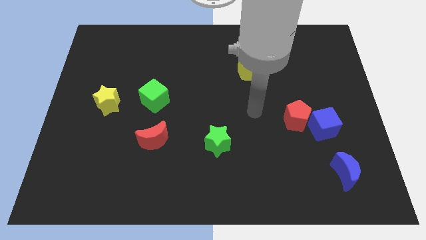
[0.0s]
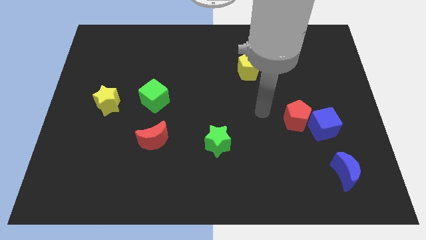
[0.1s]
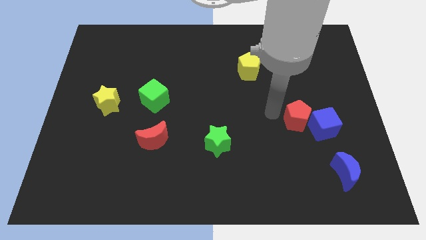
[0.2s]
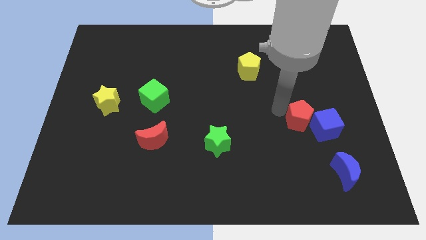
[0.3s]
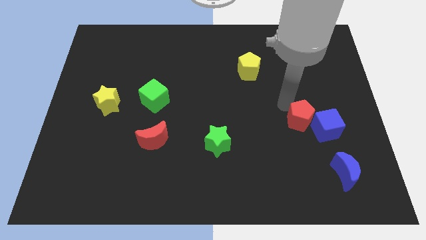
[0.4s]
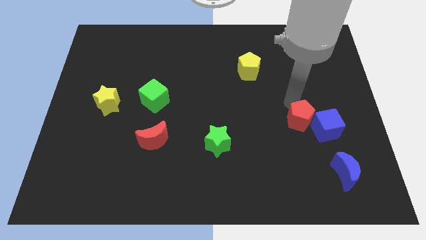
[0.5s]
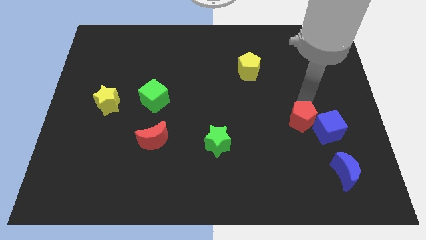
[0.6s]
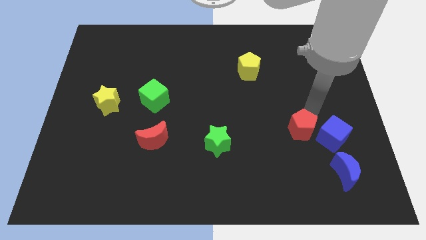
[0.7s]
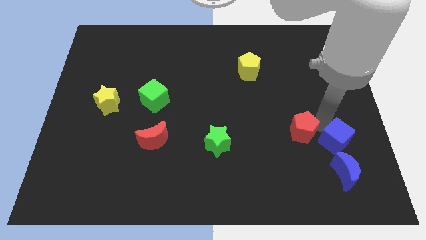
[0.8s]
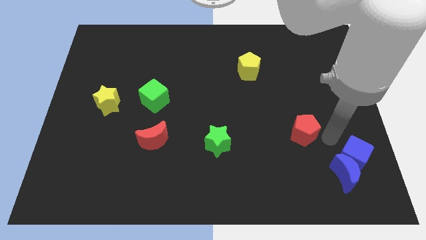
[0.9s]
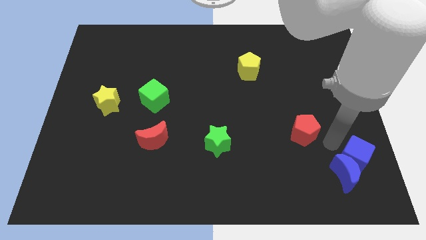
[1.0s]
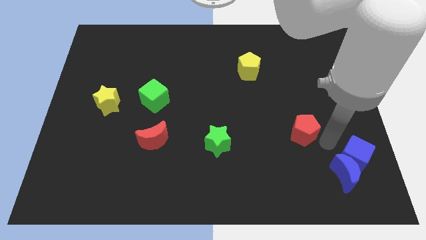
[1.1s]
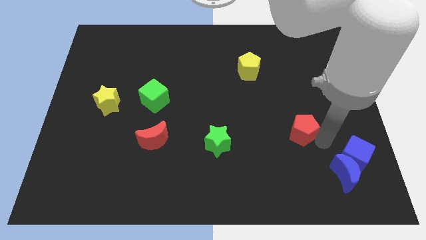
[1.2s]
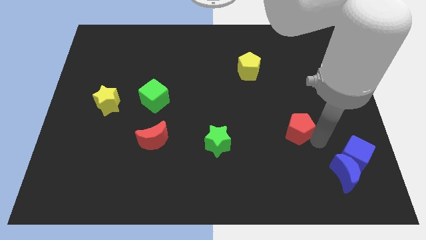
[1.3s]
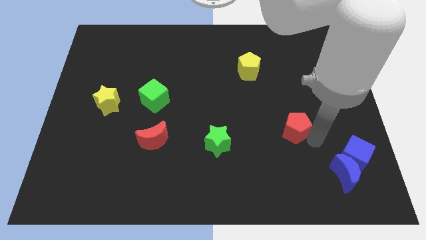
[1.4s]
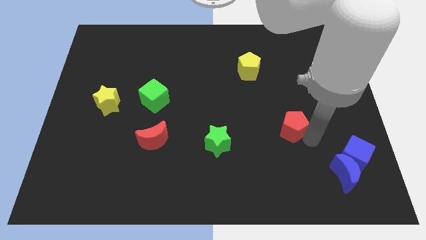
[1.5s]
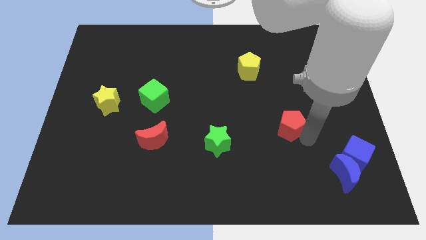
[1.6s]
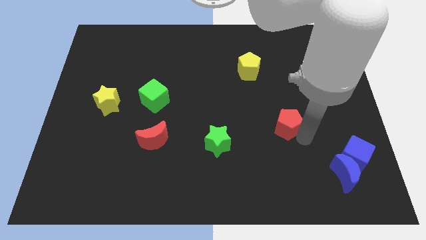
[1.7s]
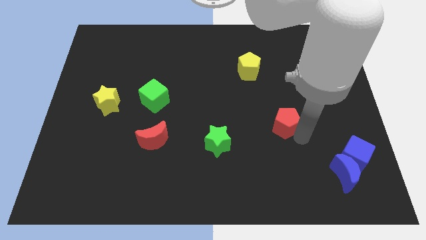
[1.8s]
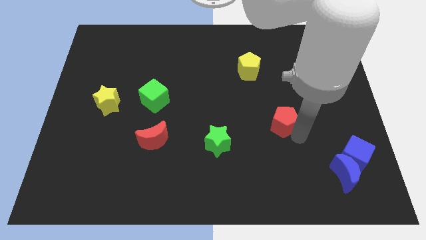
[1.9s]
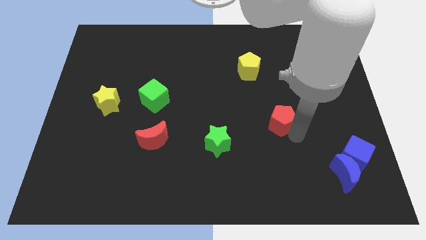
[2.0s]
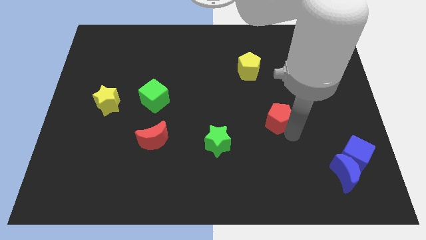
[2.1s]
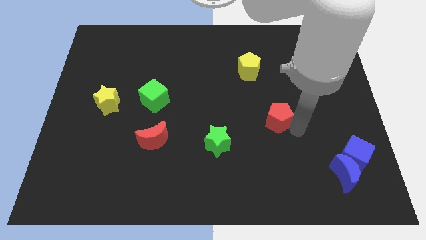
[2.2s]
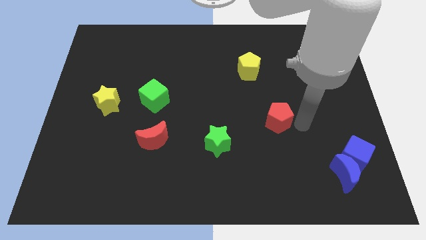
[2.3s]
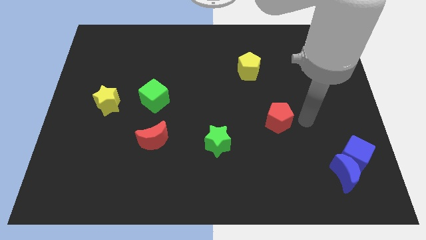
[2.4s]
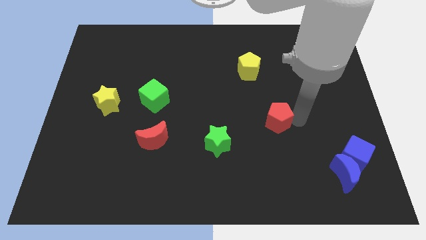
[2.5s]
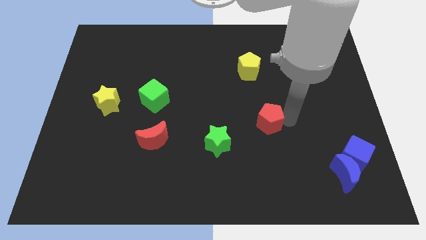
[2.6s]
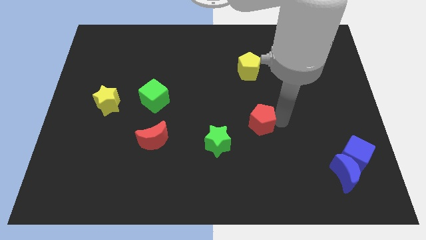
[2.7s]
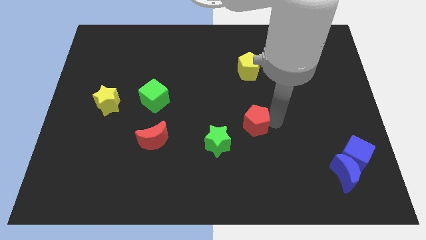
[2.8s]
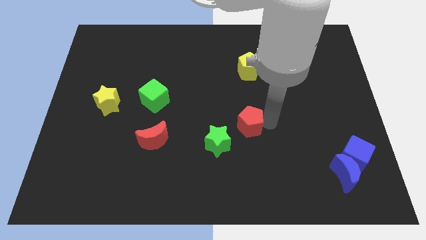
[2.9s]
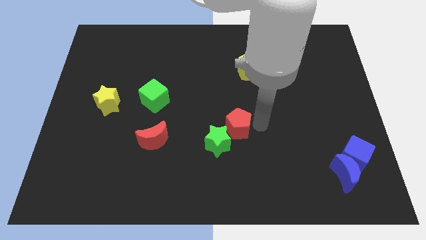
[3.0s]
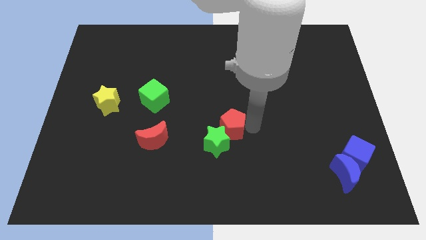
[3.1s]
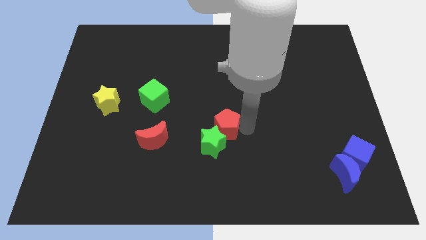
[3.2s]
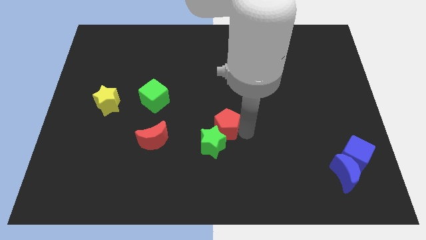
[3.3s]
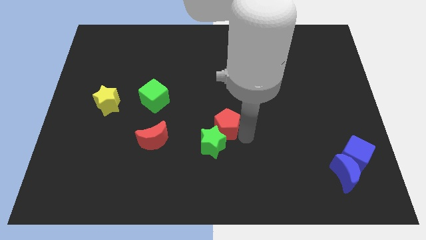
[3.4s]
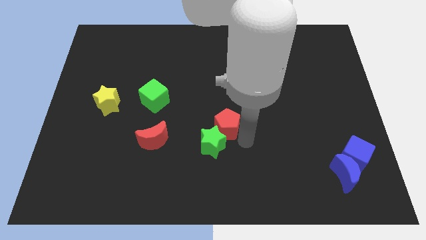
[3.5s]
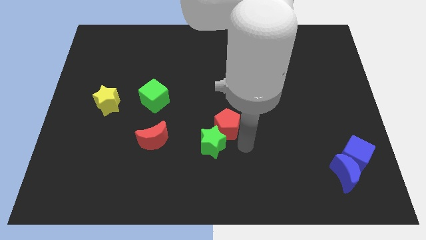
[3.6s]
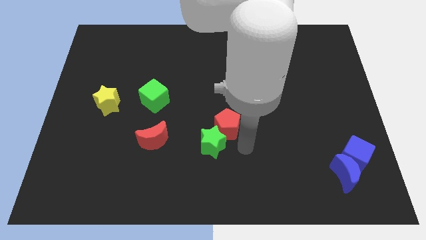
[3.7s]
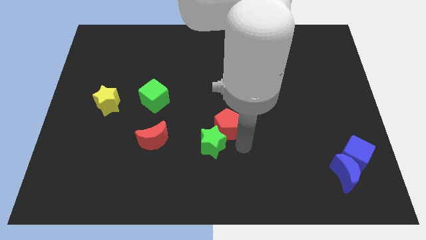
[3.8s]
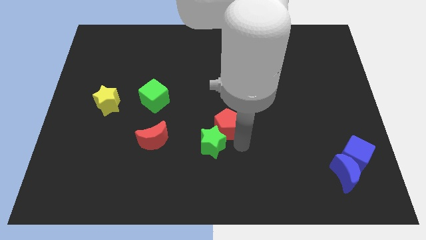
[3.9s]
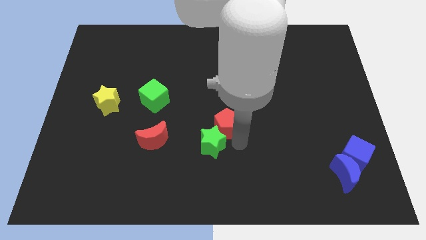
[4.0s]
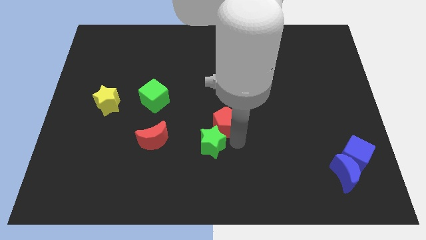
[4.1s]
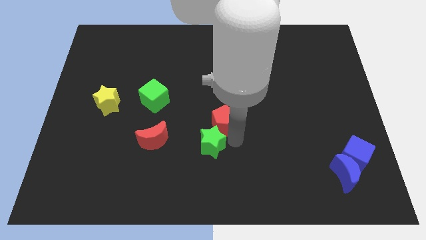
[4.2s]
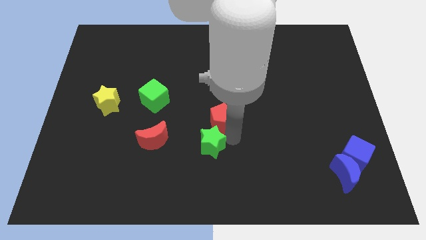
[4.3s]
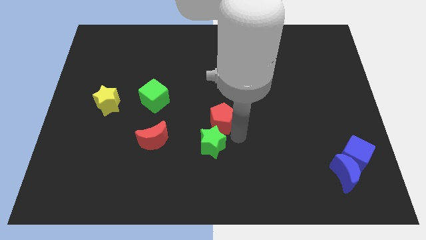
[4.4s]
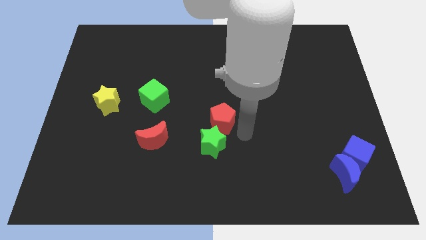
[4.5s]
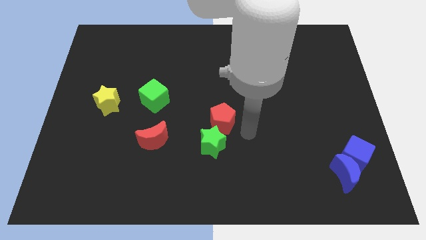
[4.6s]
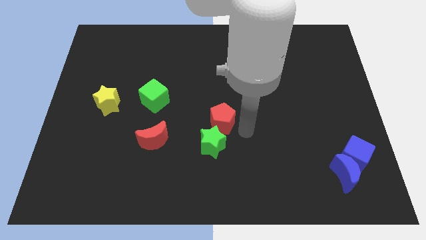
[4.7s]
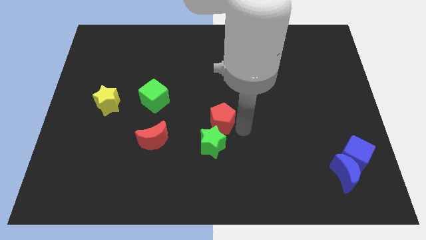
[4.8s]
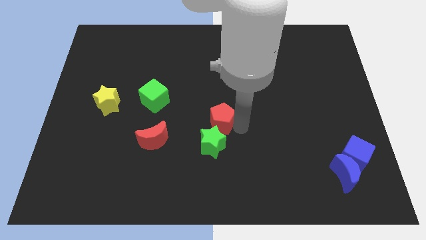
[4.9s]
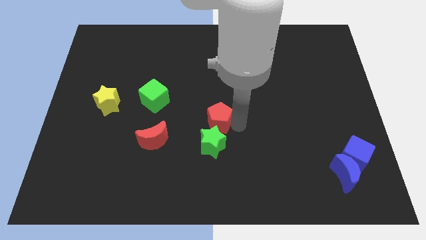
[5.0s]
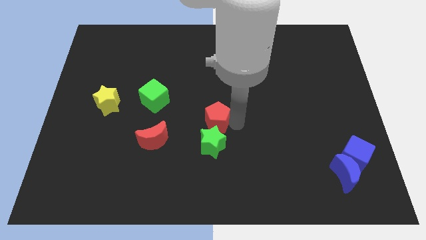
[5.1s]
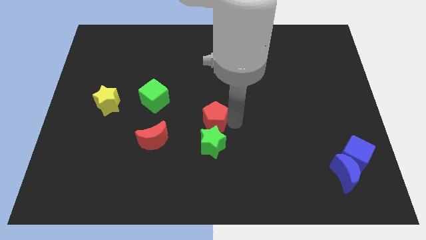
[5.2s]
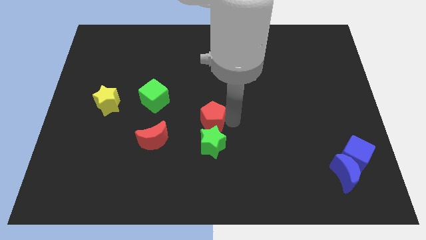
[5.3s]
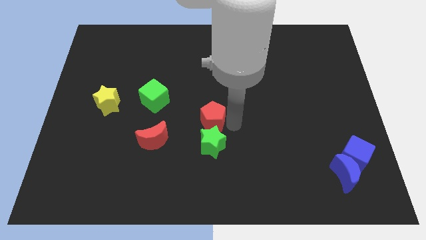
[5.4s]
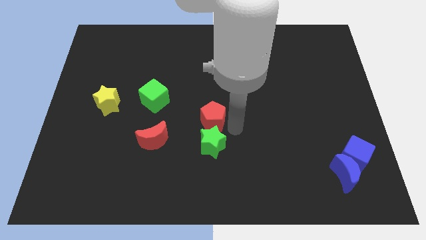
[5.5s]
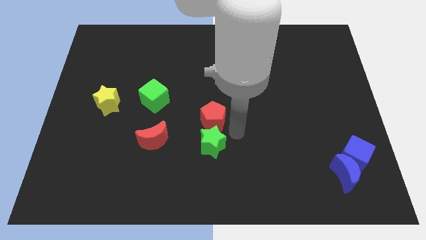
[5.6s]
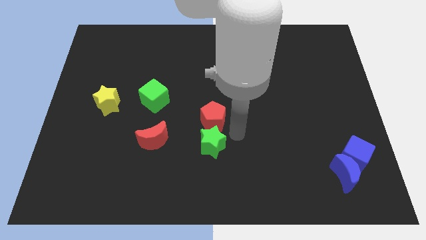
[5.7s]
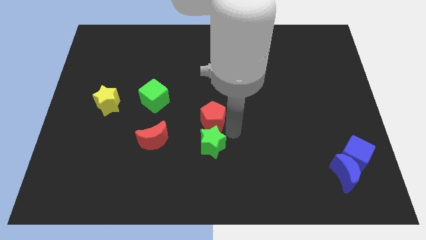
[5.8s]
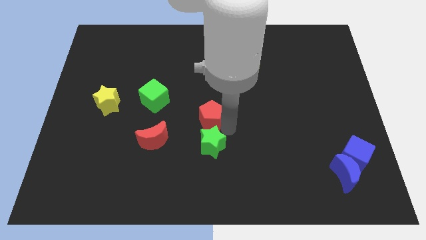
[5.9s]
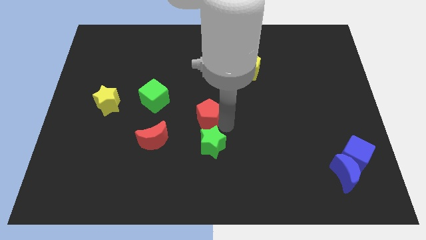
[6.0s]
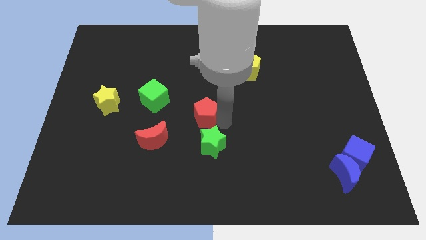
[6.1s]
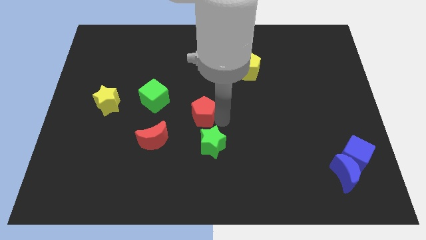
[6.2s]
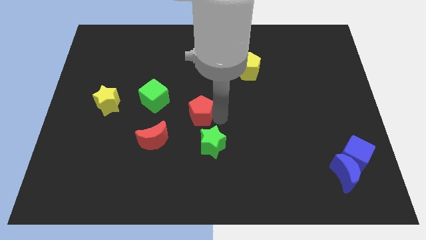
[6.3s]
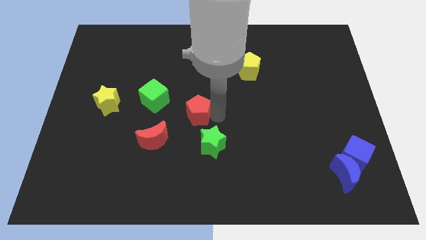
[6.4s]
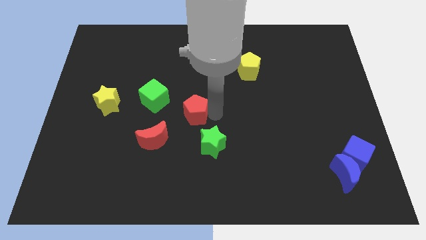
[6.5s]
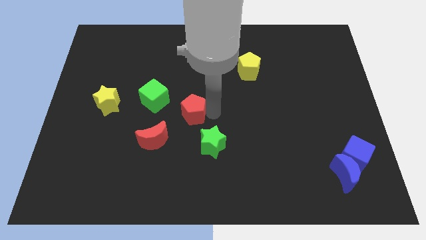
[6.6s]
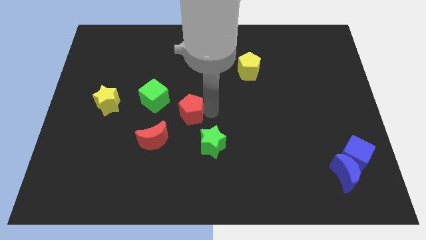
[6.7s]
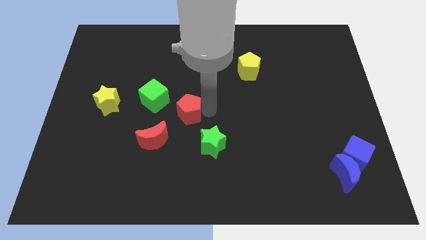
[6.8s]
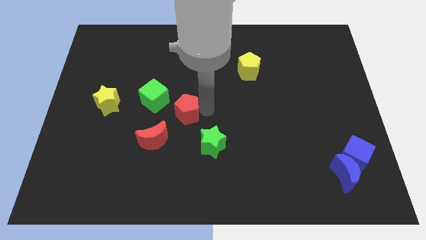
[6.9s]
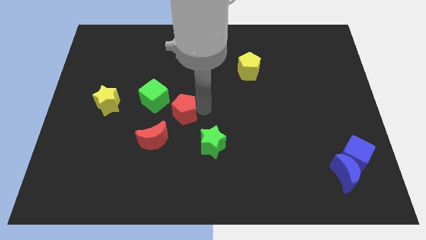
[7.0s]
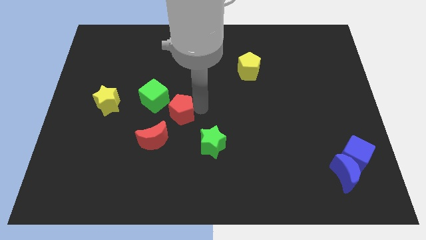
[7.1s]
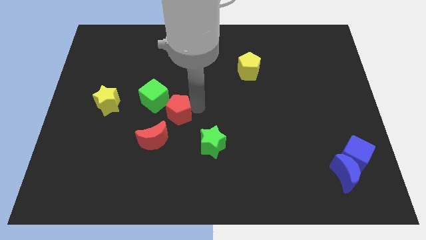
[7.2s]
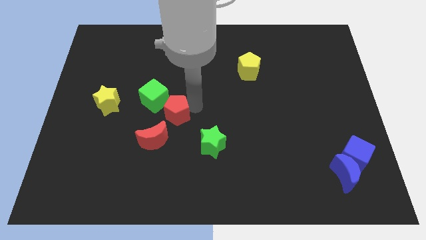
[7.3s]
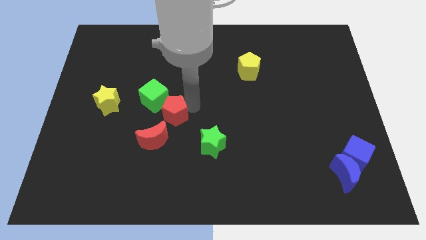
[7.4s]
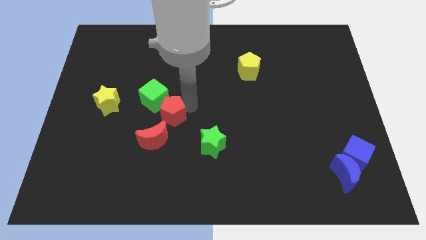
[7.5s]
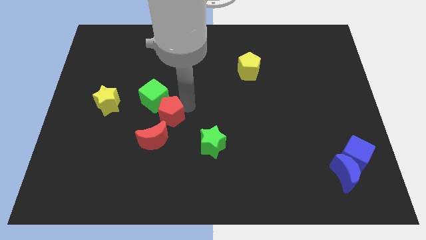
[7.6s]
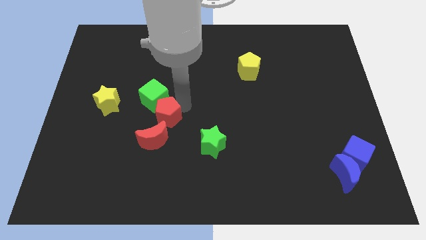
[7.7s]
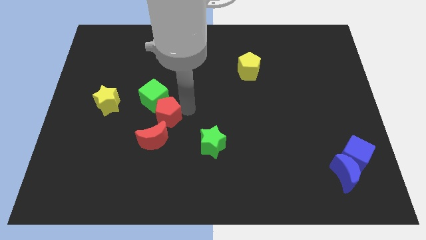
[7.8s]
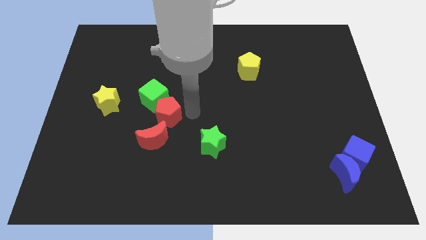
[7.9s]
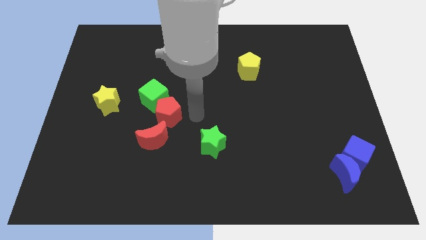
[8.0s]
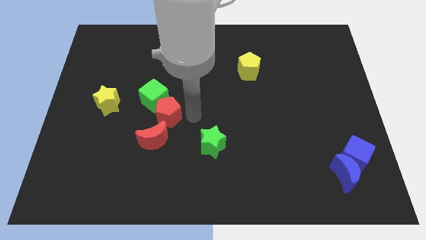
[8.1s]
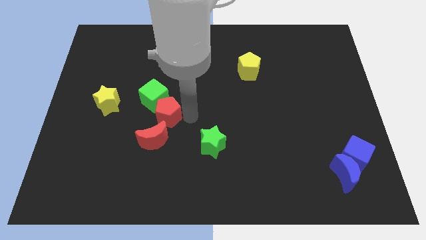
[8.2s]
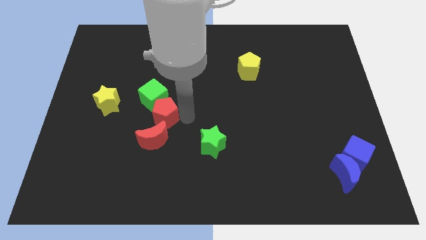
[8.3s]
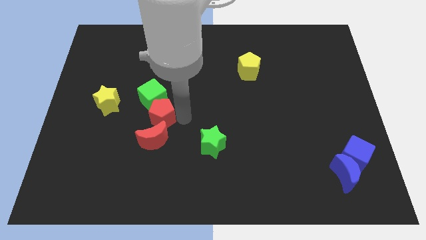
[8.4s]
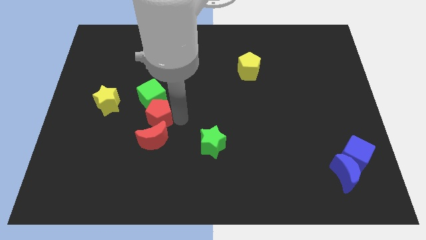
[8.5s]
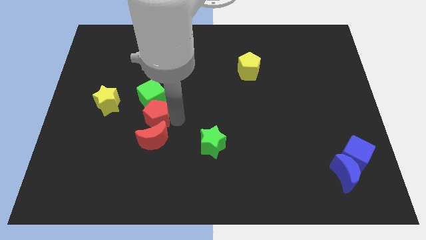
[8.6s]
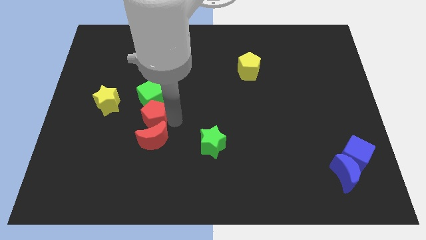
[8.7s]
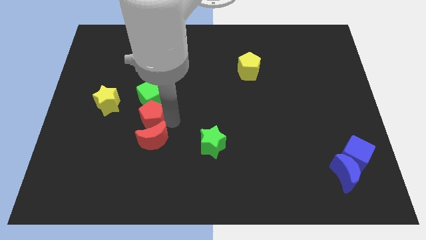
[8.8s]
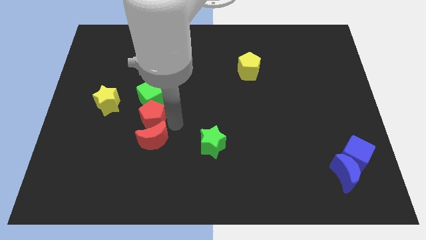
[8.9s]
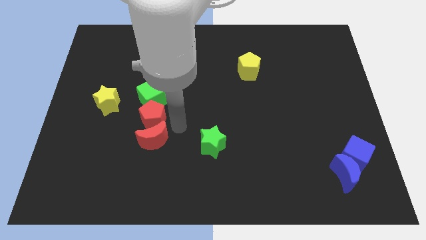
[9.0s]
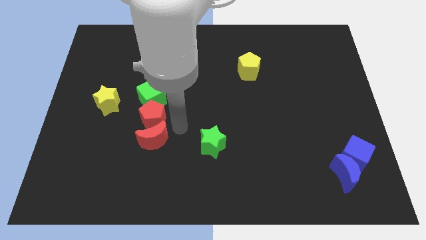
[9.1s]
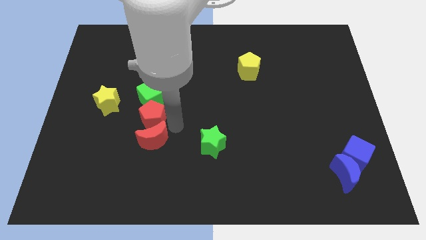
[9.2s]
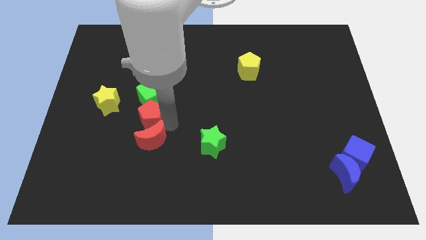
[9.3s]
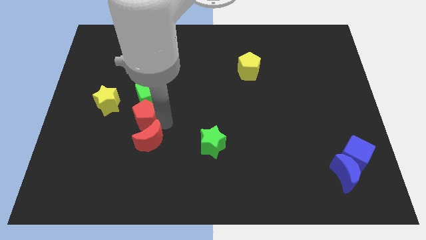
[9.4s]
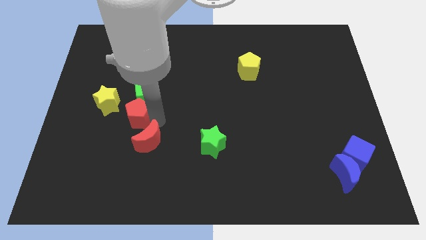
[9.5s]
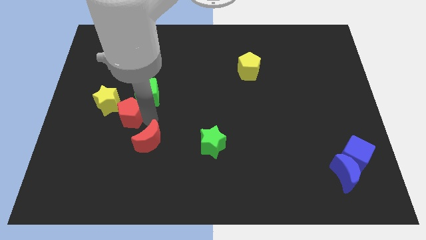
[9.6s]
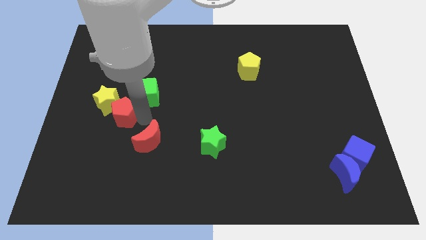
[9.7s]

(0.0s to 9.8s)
slide the red pentagon next to the yellow star
